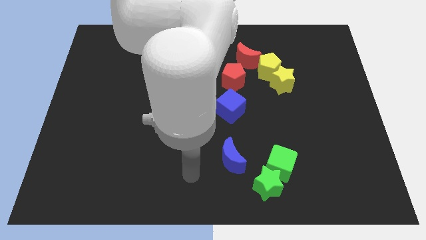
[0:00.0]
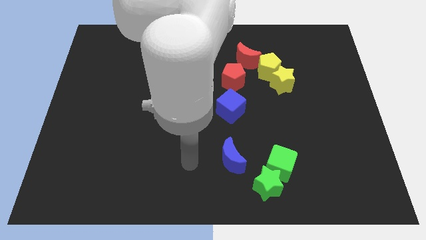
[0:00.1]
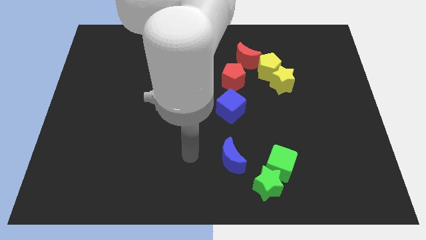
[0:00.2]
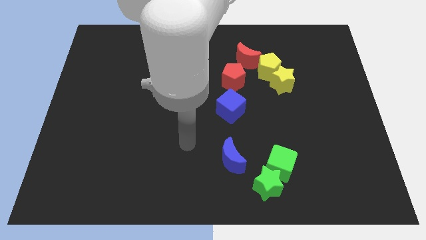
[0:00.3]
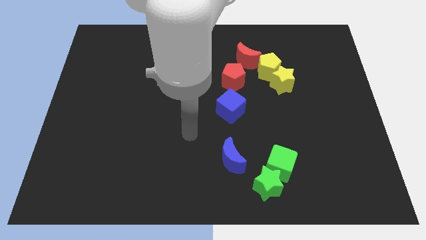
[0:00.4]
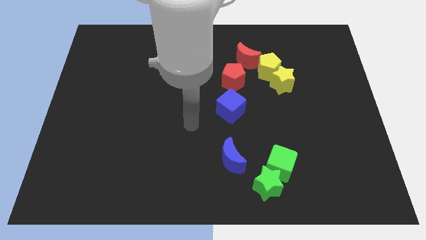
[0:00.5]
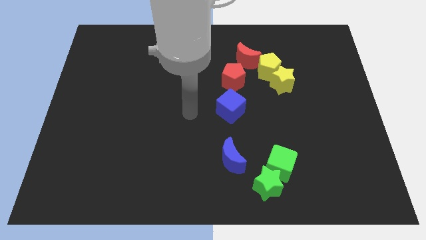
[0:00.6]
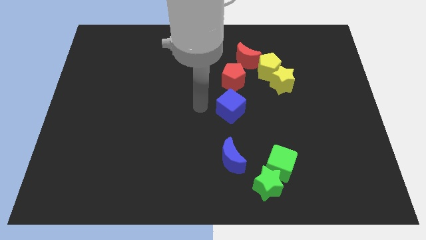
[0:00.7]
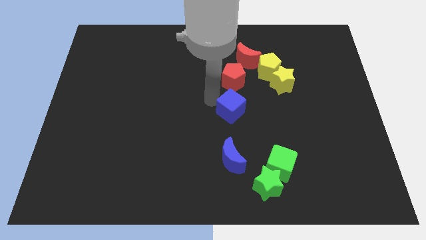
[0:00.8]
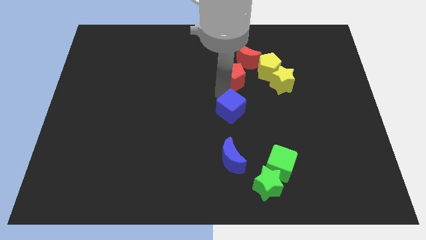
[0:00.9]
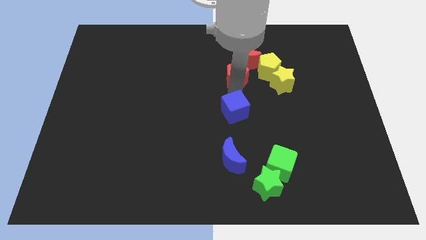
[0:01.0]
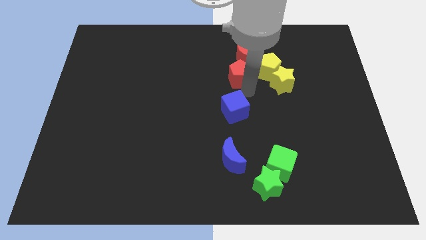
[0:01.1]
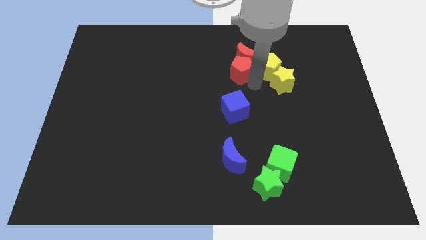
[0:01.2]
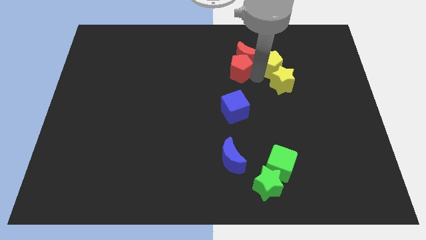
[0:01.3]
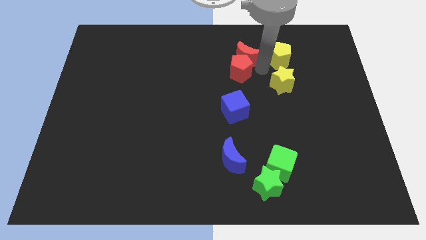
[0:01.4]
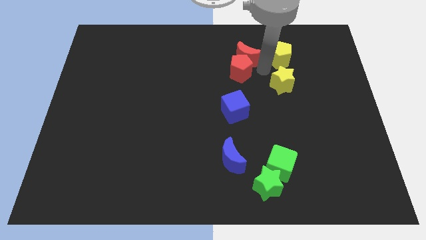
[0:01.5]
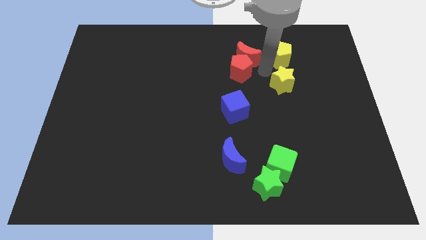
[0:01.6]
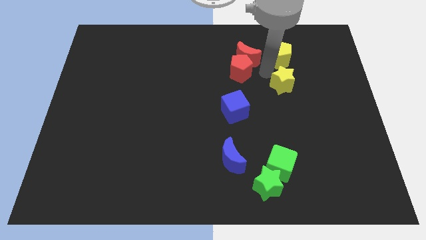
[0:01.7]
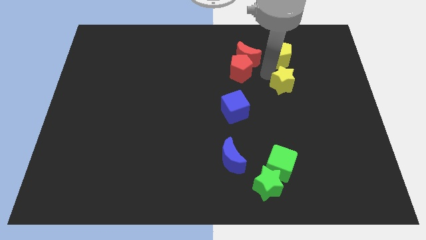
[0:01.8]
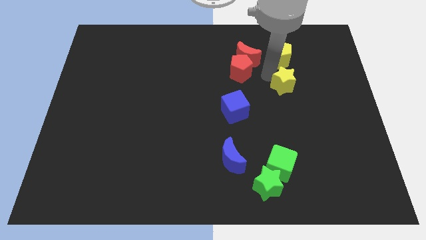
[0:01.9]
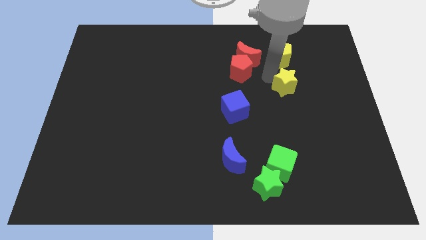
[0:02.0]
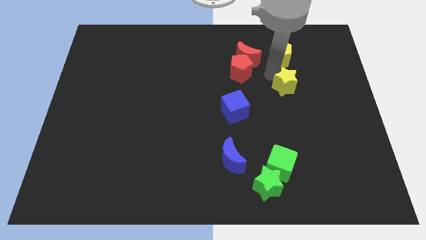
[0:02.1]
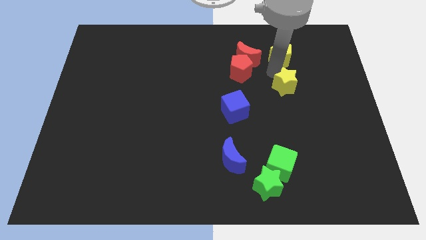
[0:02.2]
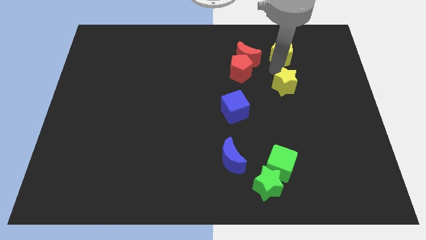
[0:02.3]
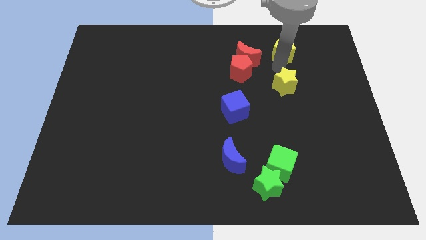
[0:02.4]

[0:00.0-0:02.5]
separate the yellow star from the yellow pentagon

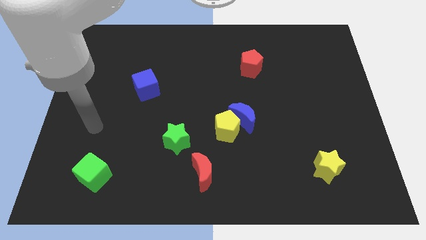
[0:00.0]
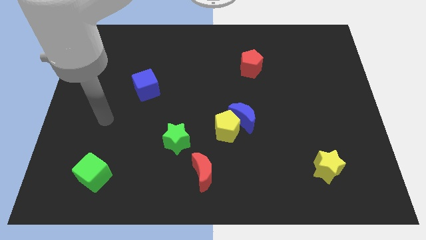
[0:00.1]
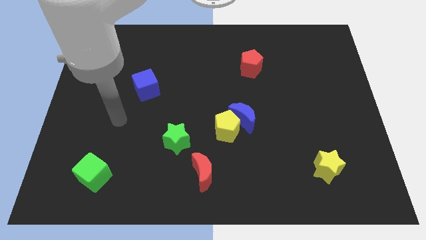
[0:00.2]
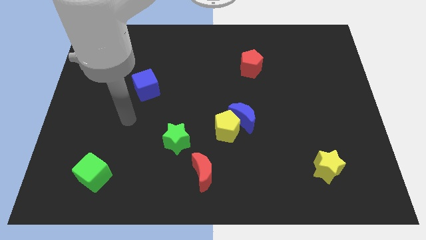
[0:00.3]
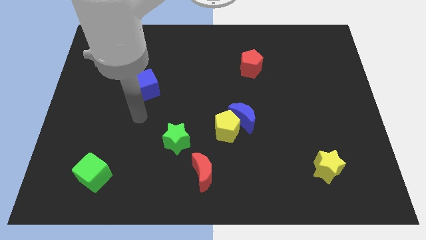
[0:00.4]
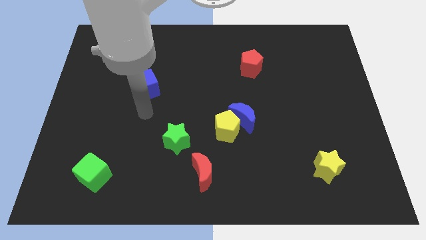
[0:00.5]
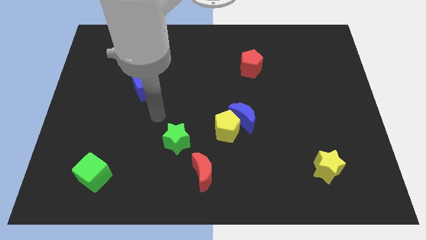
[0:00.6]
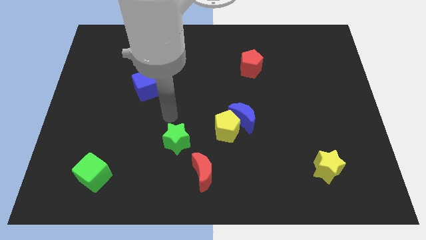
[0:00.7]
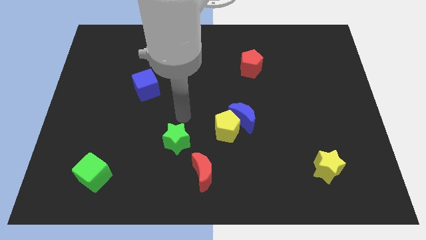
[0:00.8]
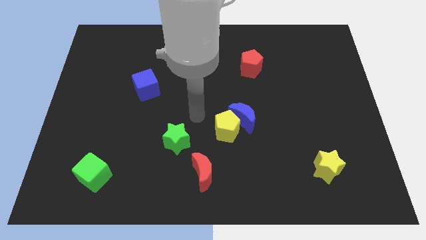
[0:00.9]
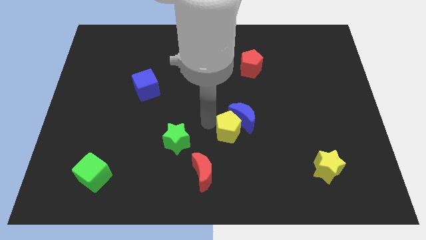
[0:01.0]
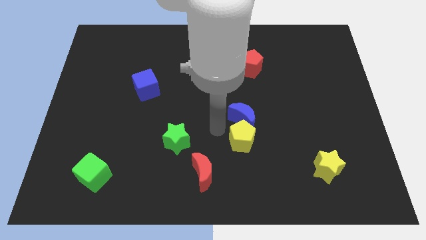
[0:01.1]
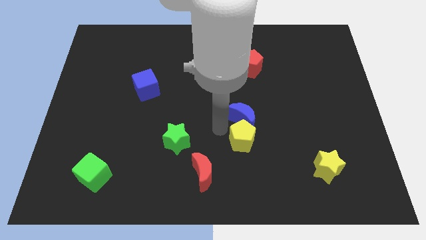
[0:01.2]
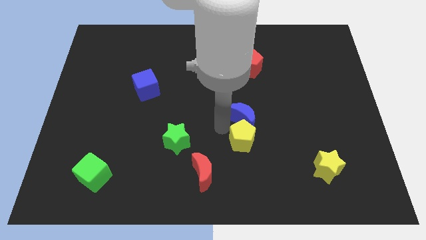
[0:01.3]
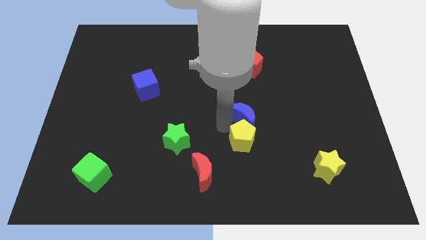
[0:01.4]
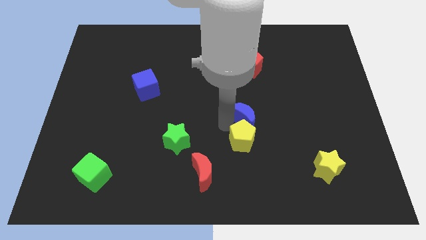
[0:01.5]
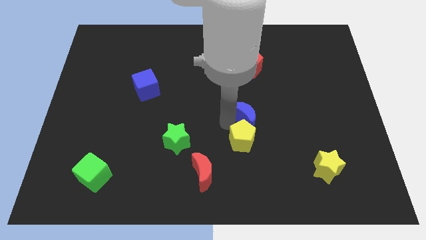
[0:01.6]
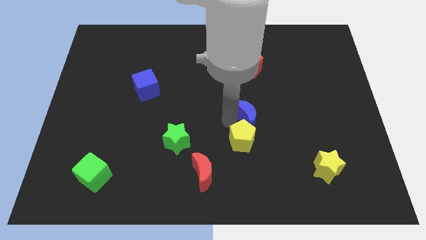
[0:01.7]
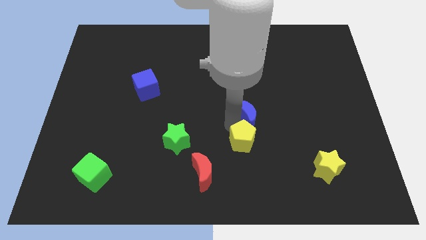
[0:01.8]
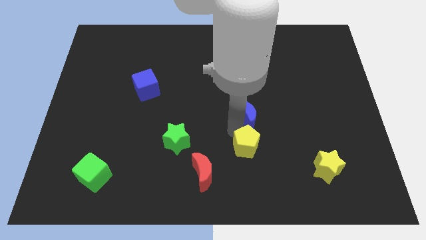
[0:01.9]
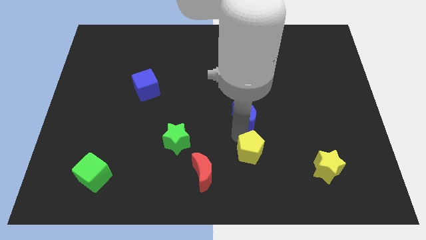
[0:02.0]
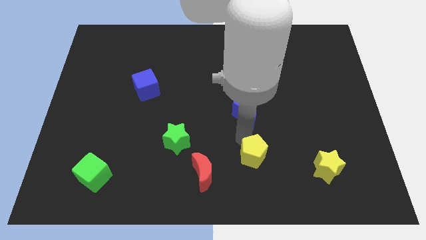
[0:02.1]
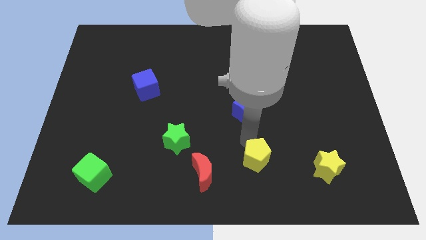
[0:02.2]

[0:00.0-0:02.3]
pull the blue moon apart from the yellow pentagon

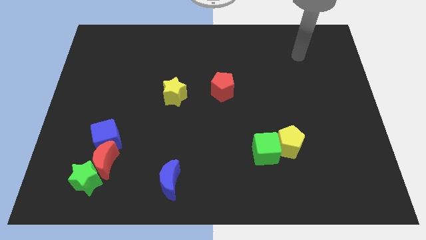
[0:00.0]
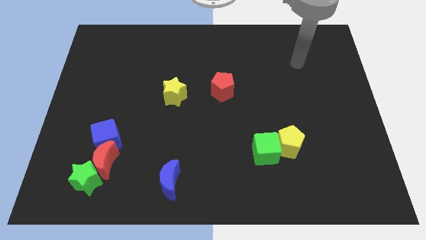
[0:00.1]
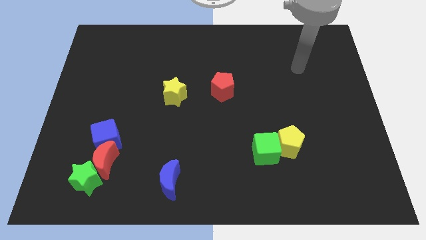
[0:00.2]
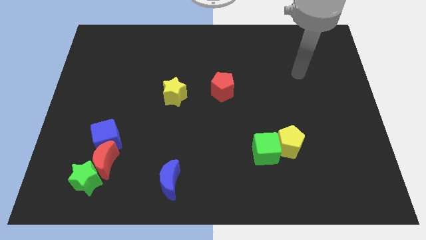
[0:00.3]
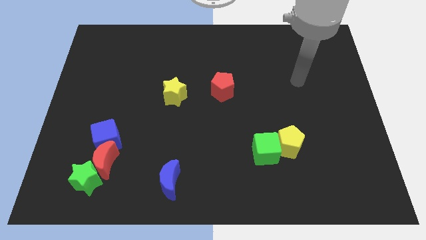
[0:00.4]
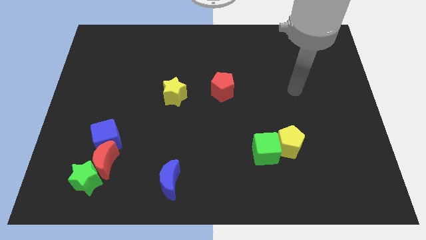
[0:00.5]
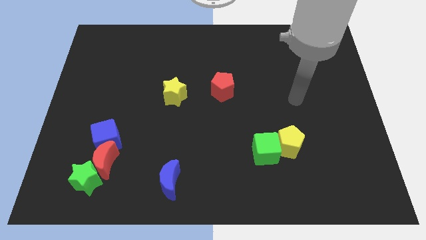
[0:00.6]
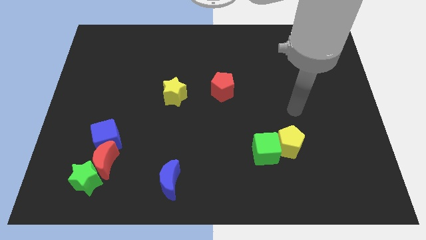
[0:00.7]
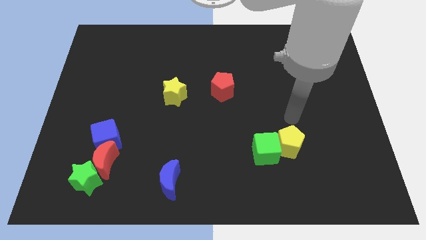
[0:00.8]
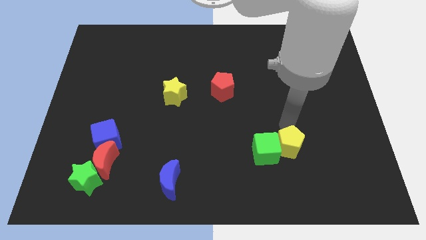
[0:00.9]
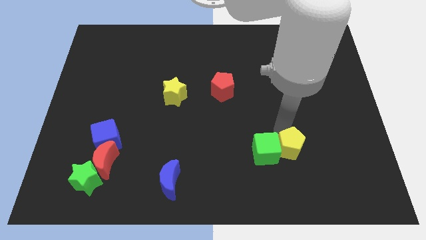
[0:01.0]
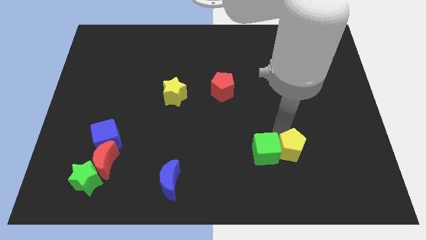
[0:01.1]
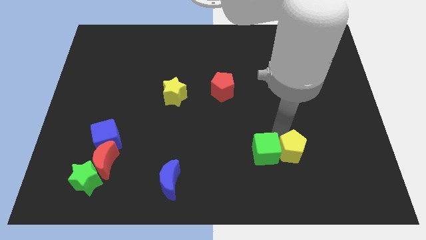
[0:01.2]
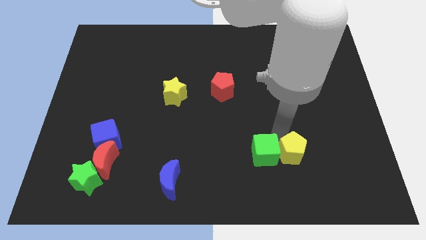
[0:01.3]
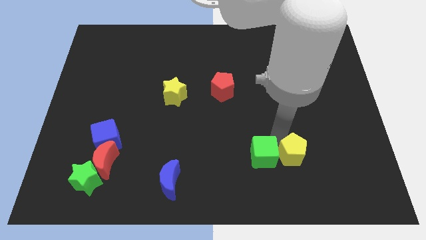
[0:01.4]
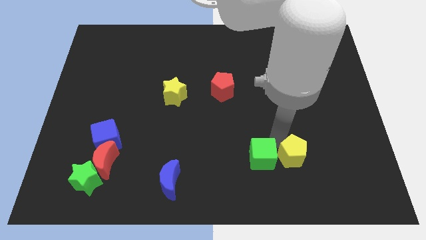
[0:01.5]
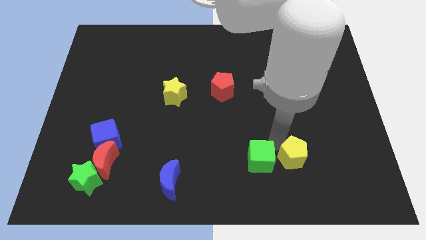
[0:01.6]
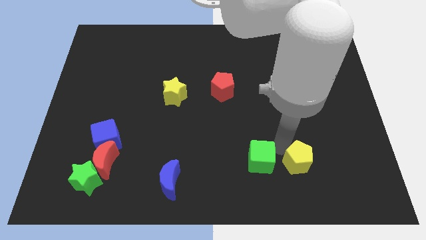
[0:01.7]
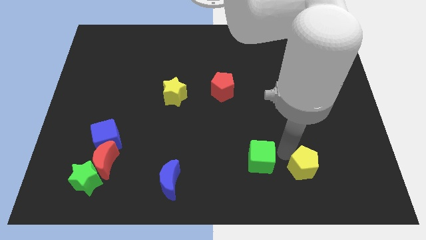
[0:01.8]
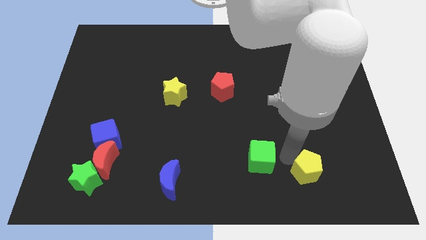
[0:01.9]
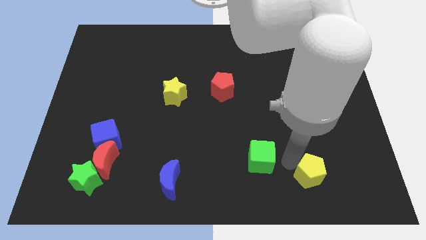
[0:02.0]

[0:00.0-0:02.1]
move the green cube away from the yellow pentagon

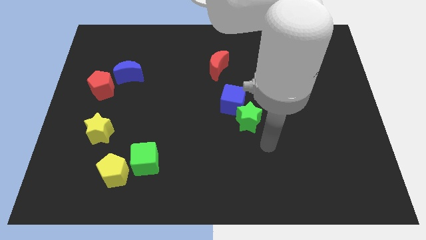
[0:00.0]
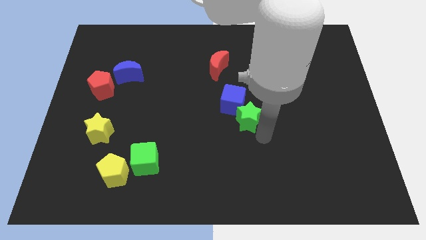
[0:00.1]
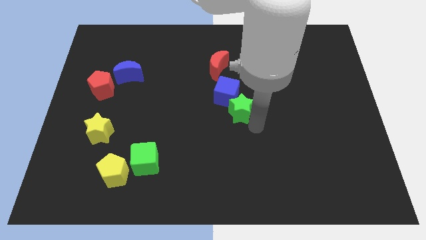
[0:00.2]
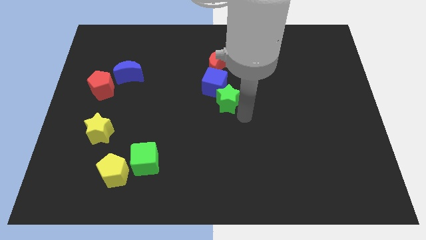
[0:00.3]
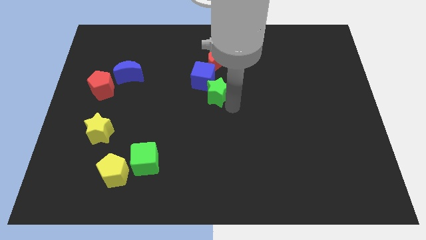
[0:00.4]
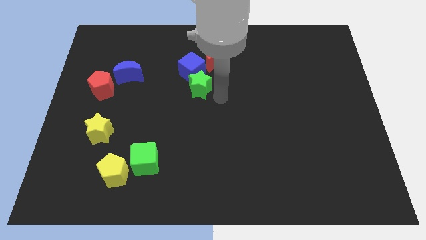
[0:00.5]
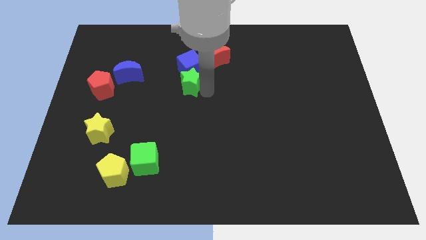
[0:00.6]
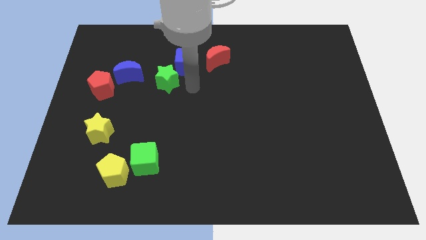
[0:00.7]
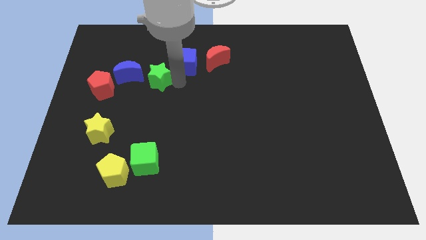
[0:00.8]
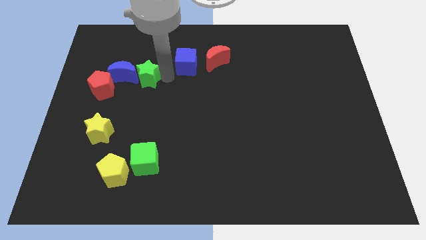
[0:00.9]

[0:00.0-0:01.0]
move the blue cube away from the green star

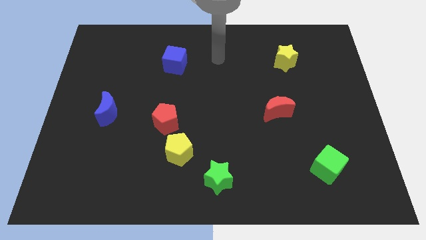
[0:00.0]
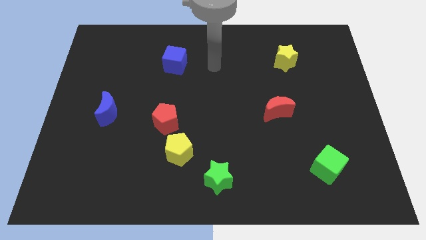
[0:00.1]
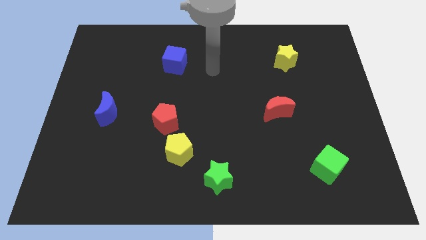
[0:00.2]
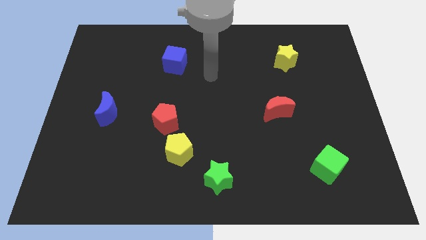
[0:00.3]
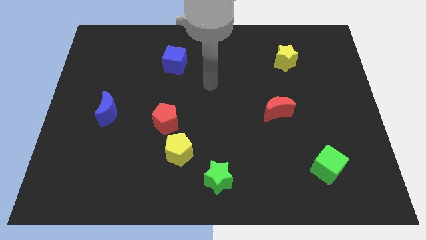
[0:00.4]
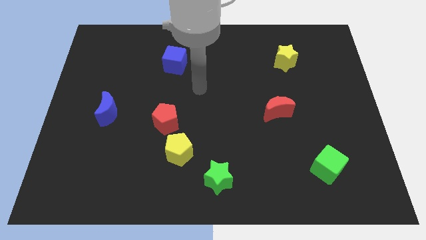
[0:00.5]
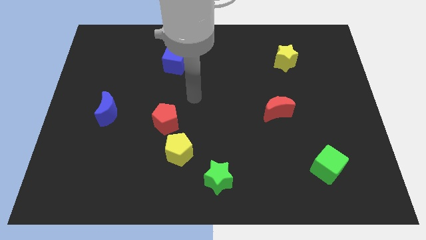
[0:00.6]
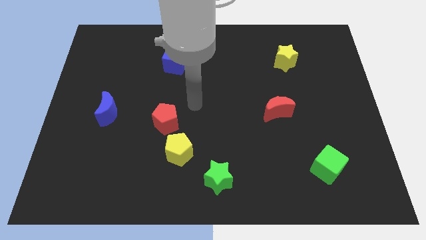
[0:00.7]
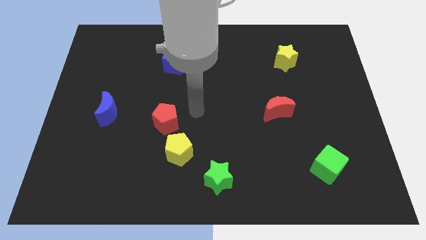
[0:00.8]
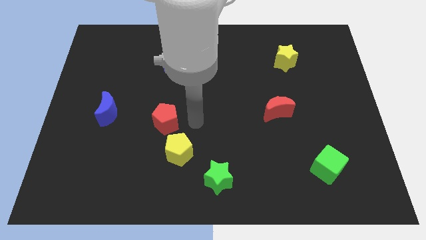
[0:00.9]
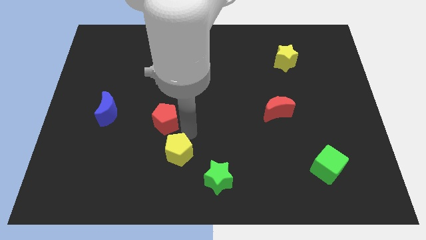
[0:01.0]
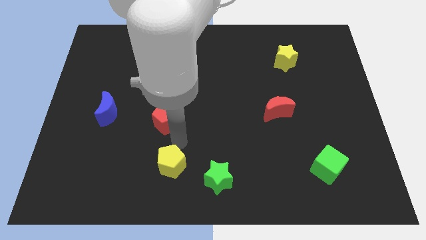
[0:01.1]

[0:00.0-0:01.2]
separate the red pentagon from the yellow pentagon
